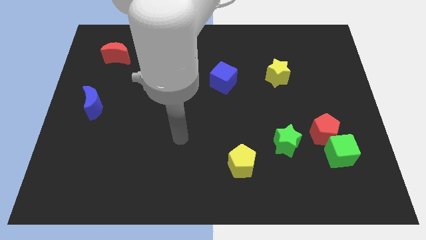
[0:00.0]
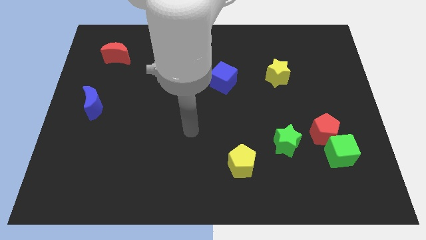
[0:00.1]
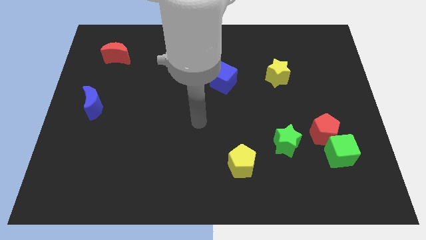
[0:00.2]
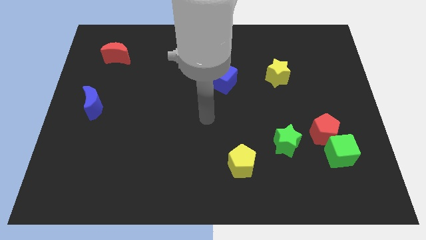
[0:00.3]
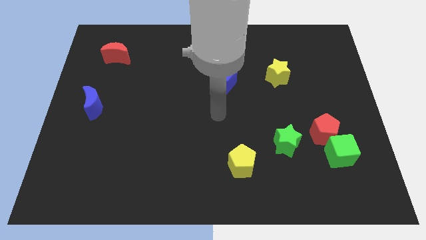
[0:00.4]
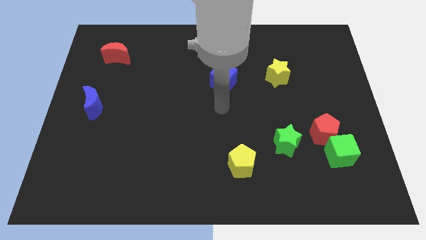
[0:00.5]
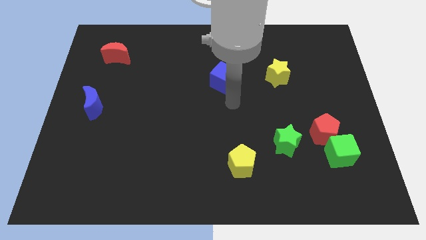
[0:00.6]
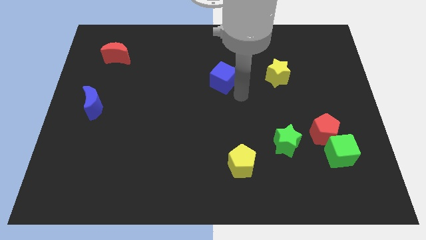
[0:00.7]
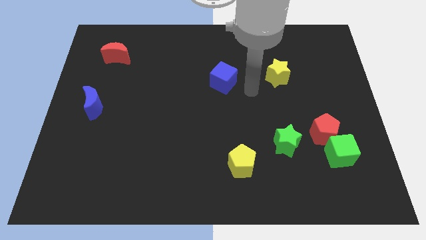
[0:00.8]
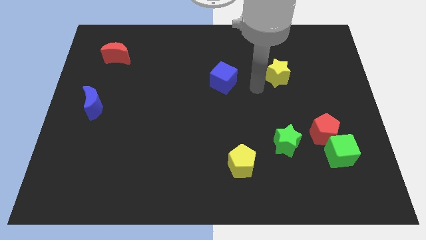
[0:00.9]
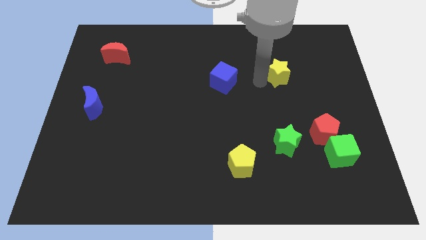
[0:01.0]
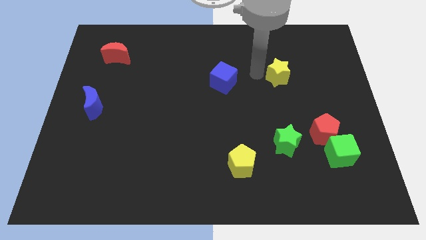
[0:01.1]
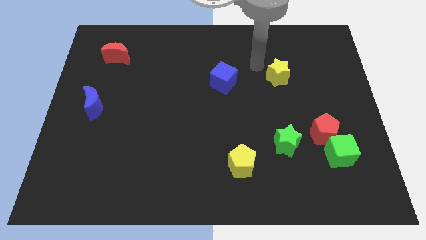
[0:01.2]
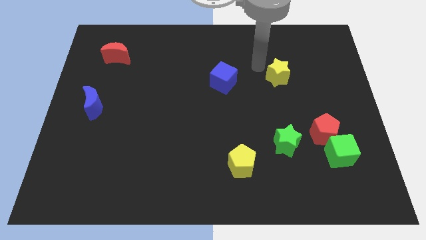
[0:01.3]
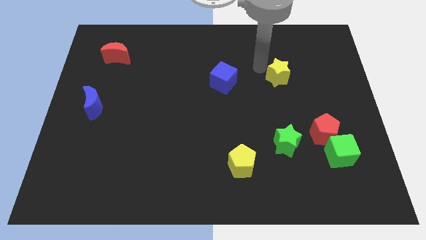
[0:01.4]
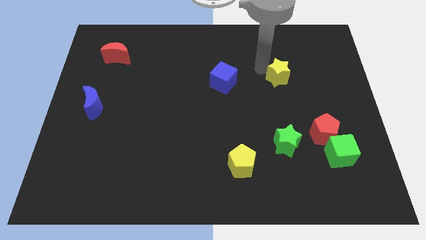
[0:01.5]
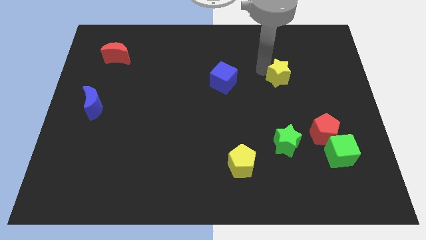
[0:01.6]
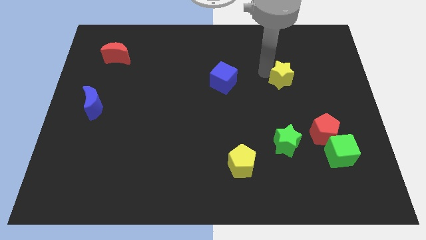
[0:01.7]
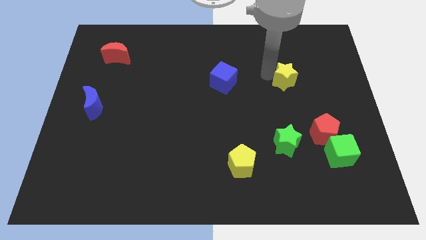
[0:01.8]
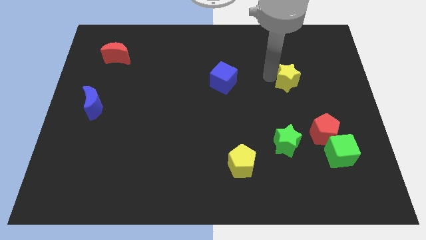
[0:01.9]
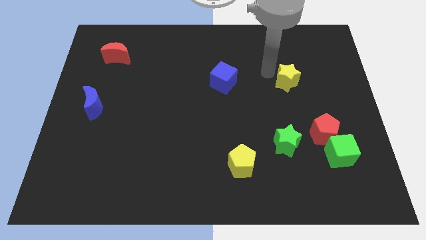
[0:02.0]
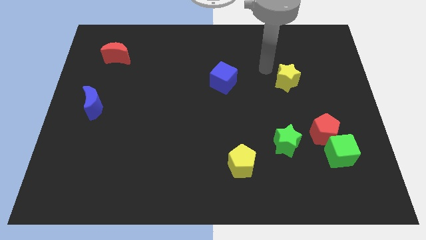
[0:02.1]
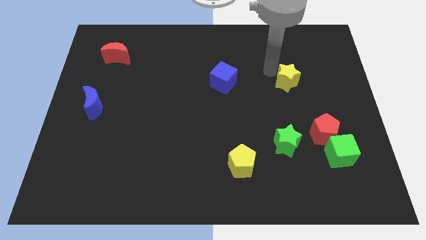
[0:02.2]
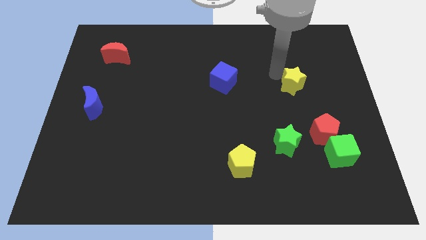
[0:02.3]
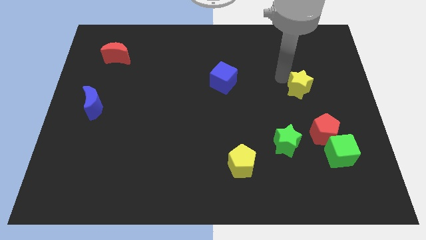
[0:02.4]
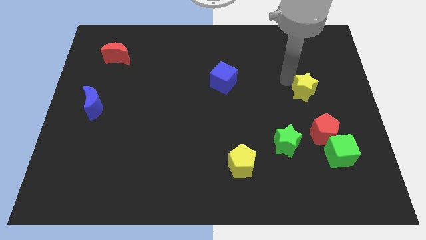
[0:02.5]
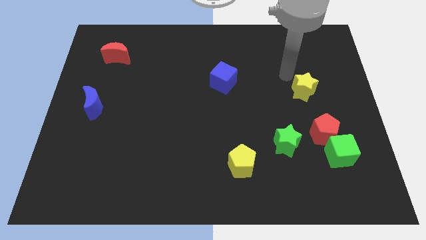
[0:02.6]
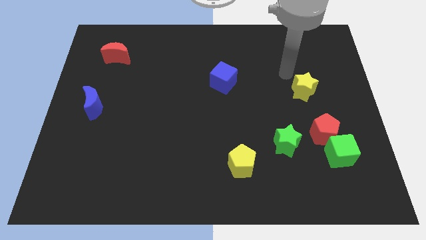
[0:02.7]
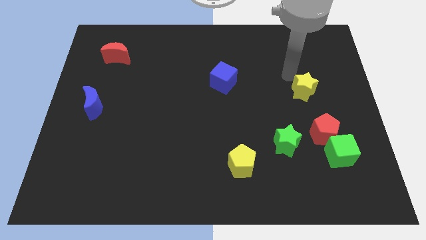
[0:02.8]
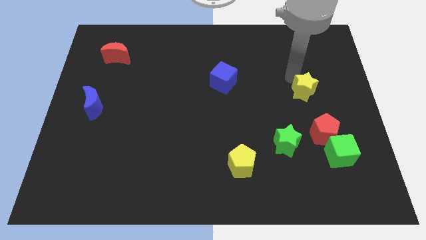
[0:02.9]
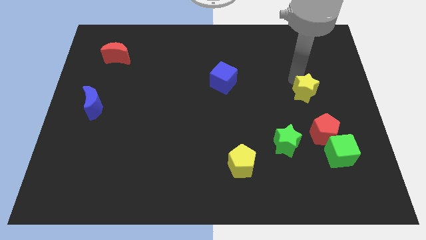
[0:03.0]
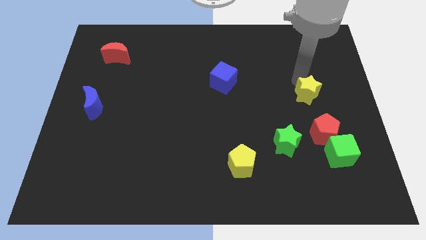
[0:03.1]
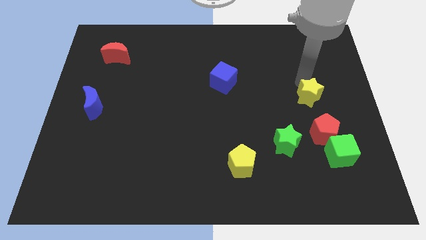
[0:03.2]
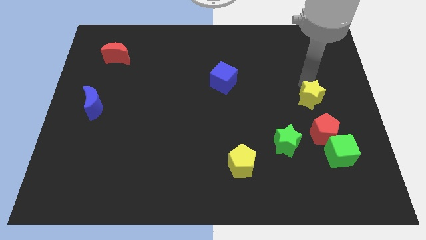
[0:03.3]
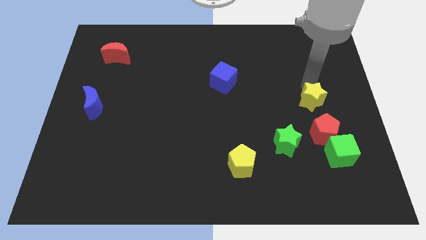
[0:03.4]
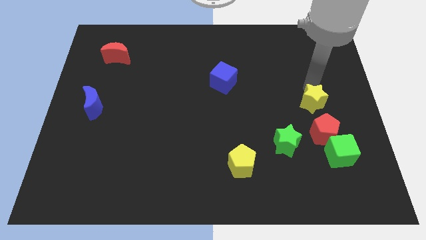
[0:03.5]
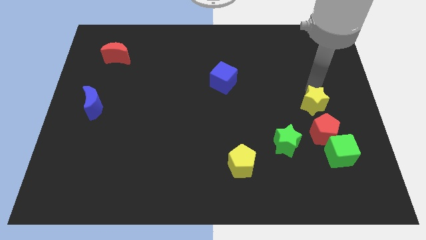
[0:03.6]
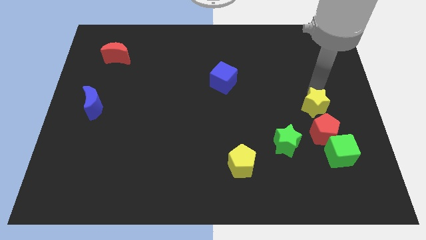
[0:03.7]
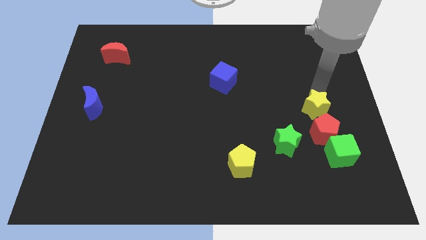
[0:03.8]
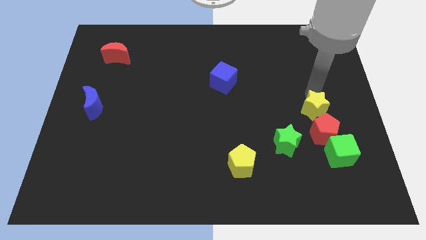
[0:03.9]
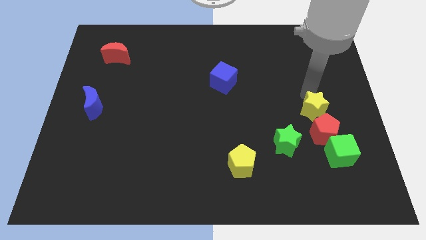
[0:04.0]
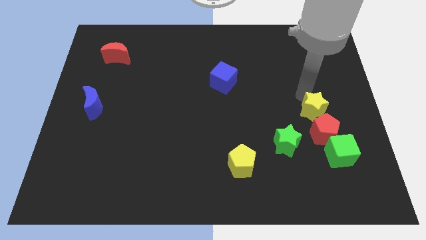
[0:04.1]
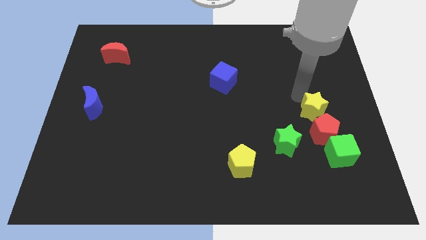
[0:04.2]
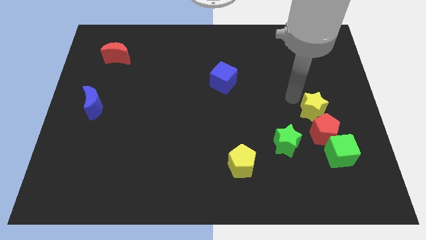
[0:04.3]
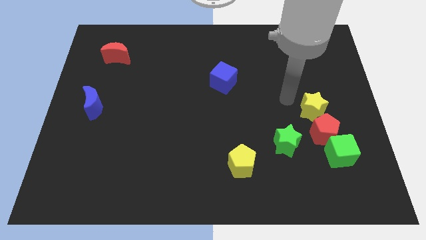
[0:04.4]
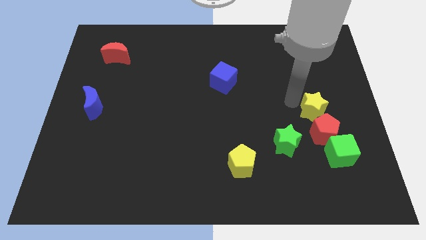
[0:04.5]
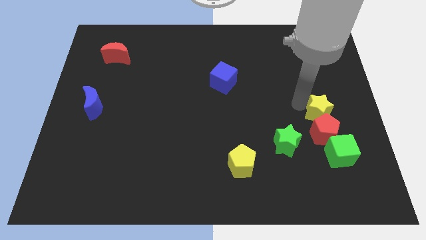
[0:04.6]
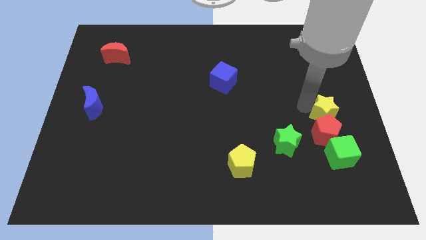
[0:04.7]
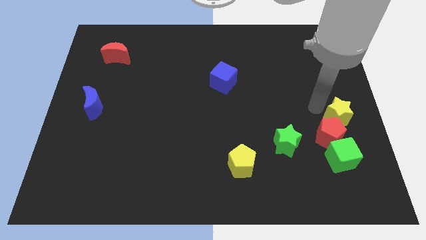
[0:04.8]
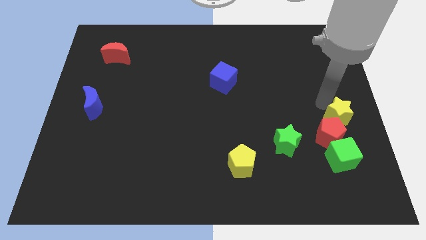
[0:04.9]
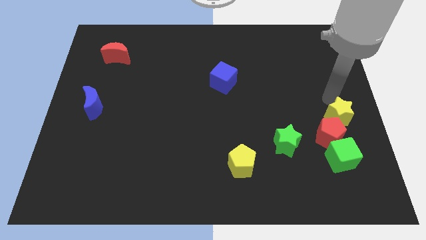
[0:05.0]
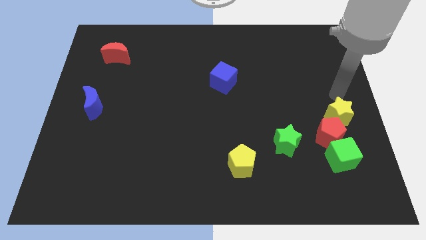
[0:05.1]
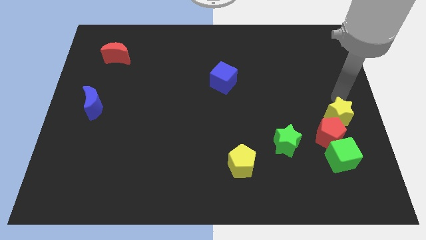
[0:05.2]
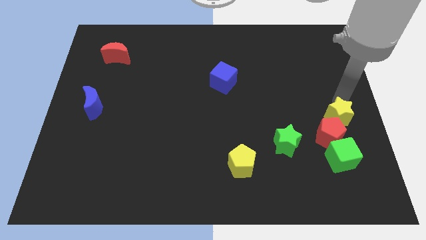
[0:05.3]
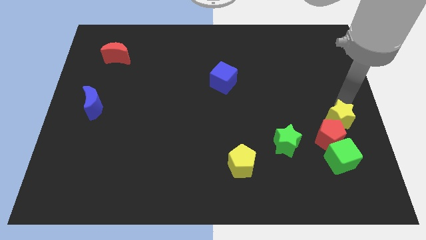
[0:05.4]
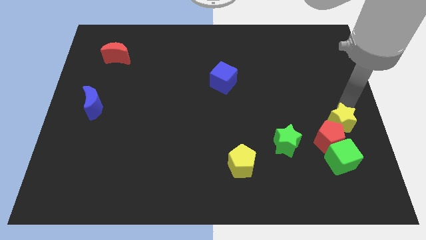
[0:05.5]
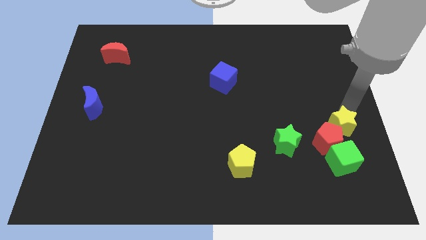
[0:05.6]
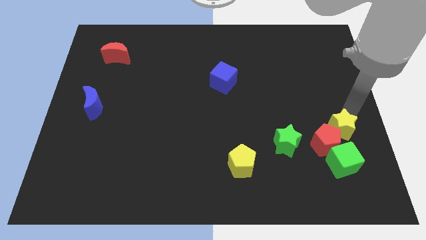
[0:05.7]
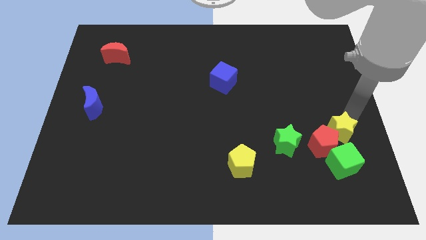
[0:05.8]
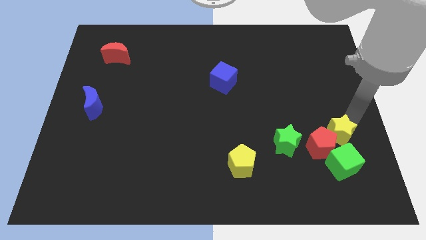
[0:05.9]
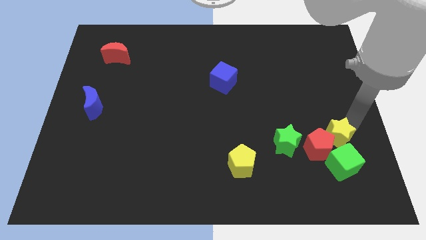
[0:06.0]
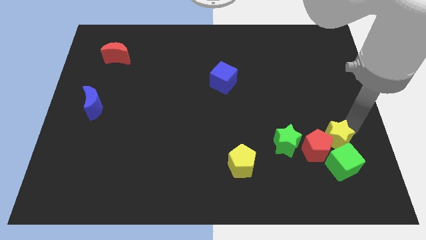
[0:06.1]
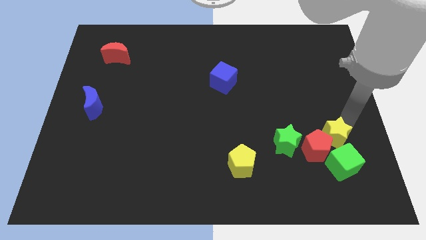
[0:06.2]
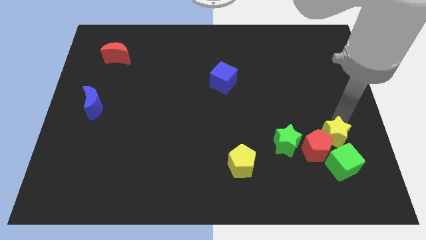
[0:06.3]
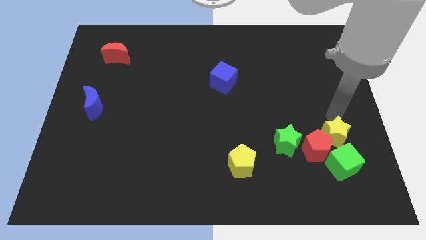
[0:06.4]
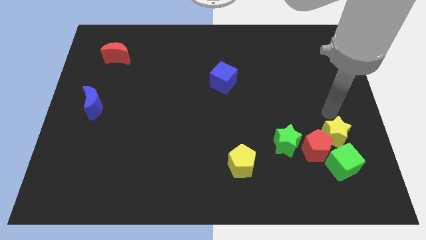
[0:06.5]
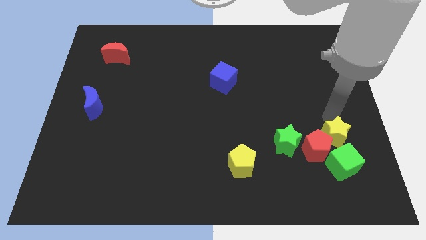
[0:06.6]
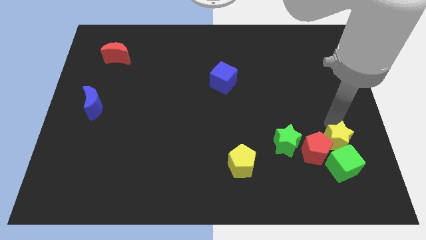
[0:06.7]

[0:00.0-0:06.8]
move the yellow star next to the green cube
